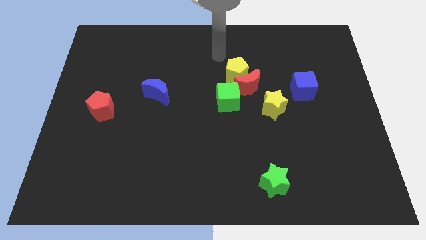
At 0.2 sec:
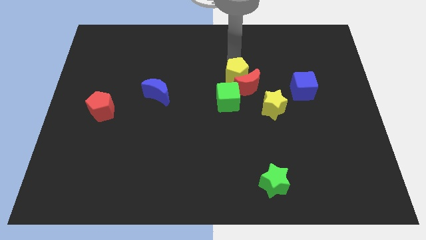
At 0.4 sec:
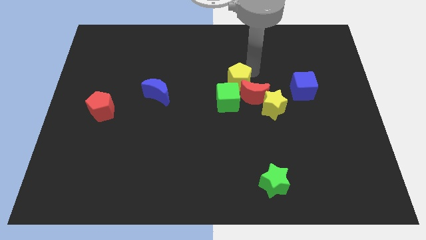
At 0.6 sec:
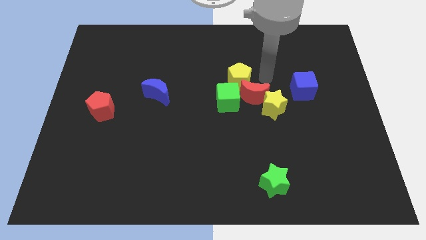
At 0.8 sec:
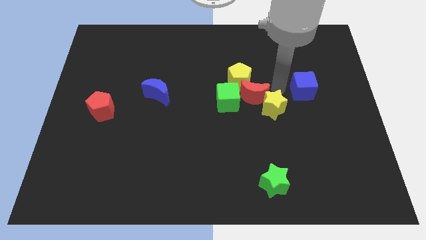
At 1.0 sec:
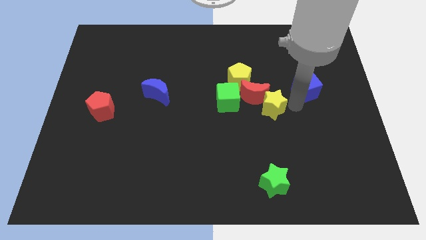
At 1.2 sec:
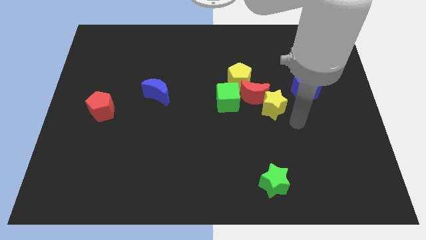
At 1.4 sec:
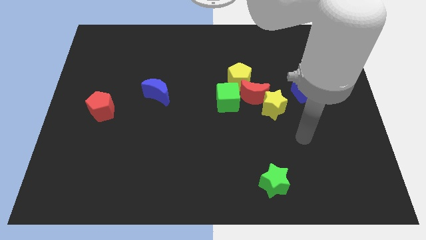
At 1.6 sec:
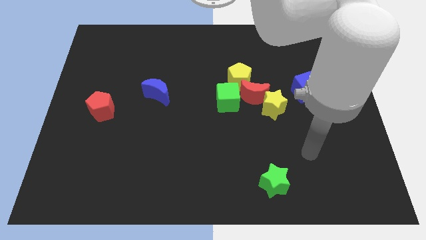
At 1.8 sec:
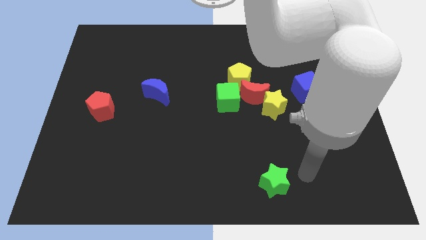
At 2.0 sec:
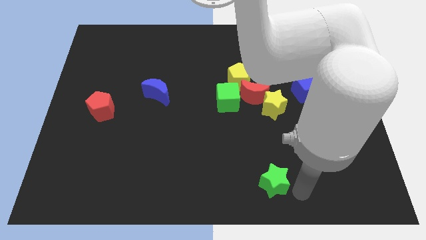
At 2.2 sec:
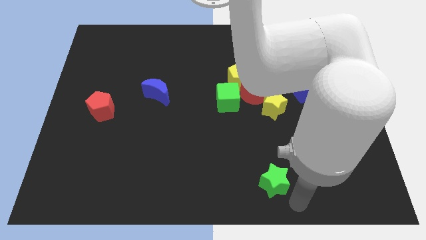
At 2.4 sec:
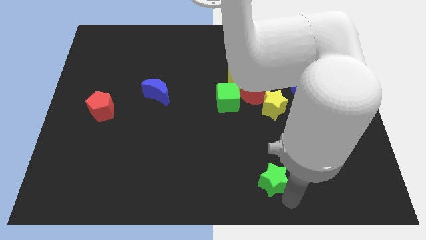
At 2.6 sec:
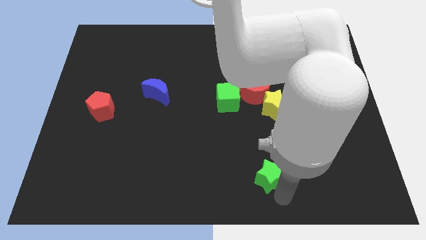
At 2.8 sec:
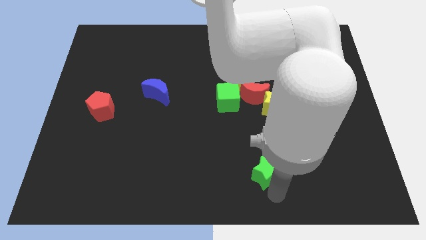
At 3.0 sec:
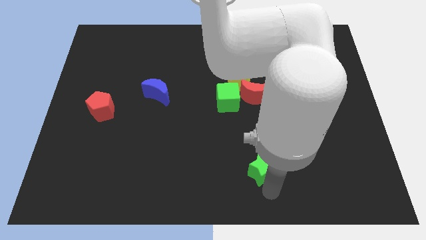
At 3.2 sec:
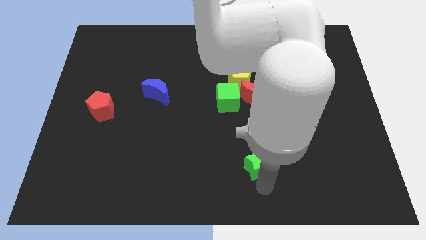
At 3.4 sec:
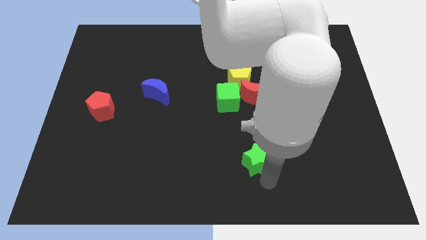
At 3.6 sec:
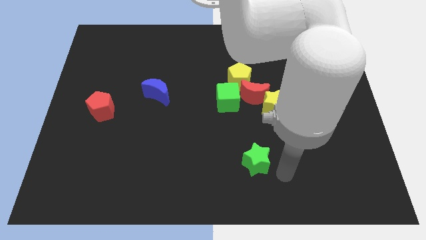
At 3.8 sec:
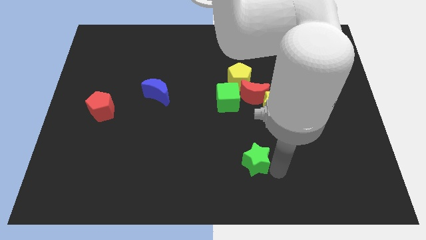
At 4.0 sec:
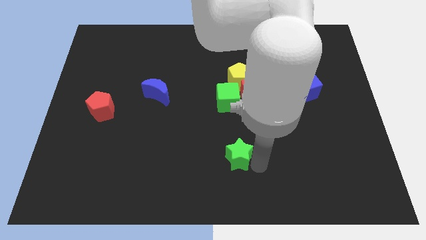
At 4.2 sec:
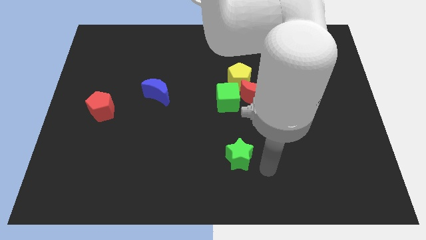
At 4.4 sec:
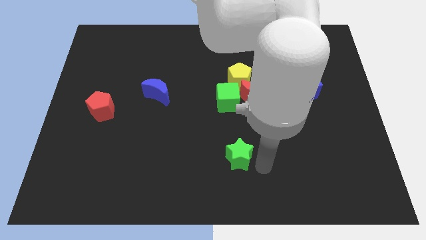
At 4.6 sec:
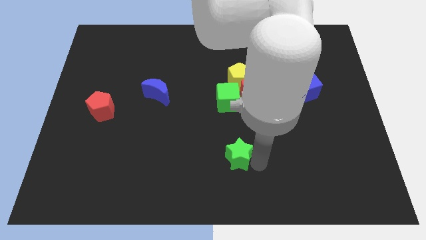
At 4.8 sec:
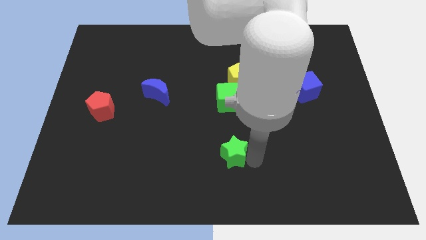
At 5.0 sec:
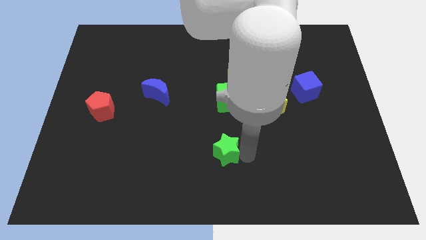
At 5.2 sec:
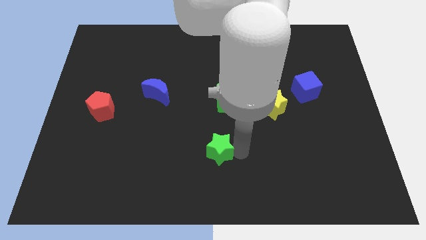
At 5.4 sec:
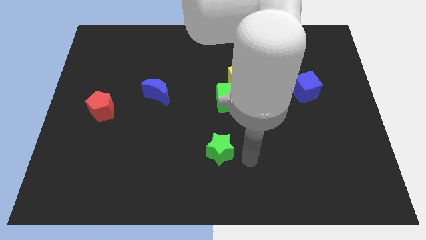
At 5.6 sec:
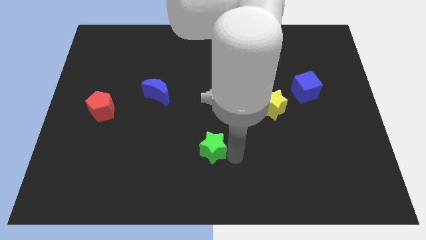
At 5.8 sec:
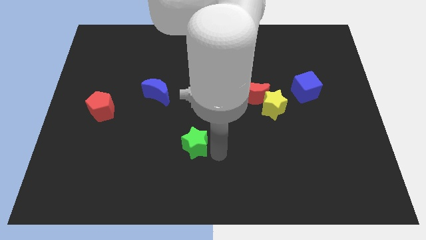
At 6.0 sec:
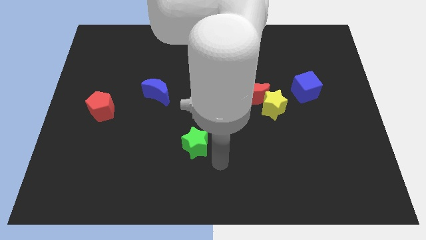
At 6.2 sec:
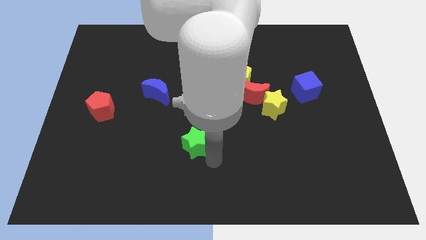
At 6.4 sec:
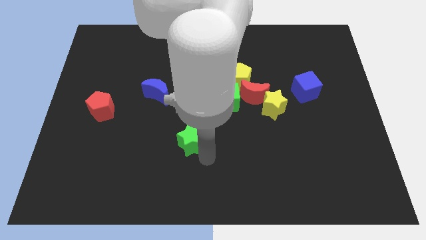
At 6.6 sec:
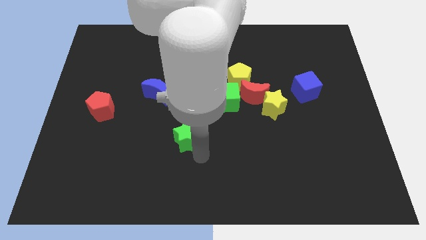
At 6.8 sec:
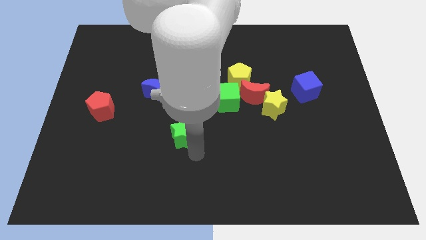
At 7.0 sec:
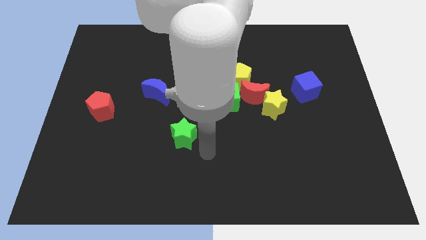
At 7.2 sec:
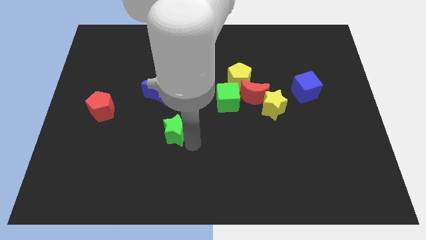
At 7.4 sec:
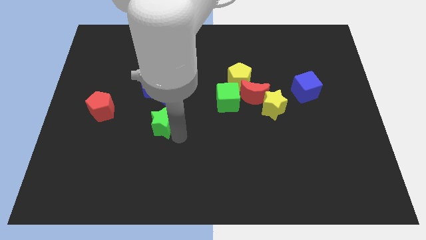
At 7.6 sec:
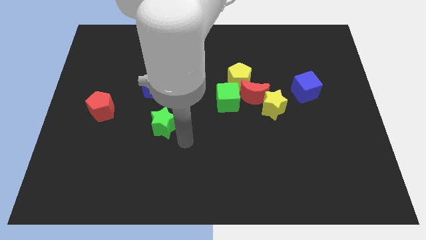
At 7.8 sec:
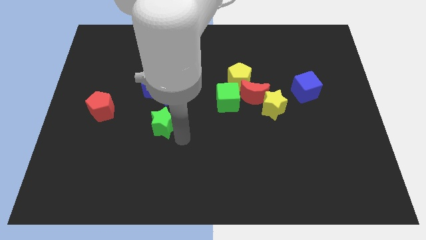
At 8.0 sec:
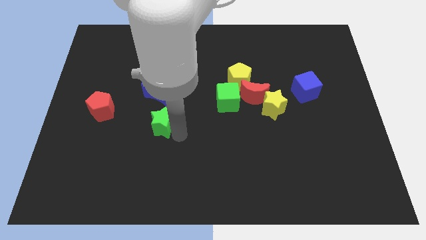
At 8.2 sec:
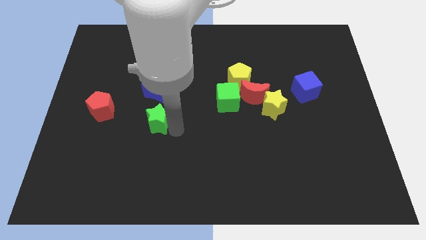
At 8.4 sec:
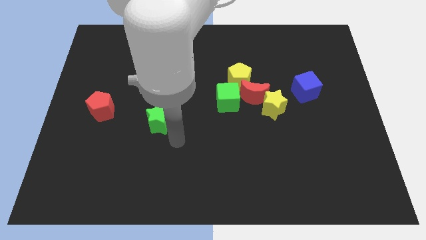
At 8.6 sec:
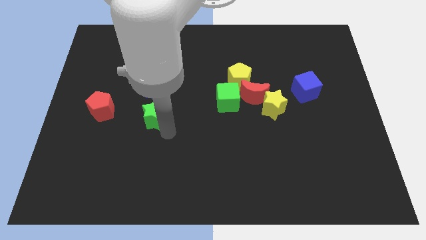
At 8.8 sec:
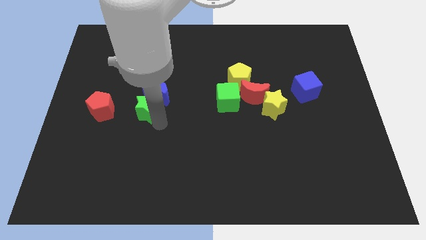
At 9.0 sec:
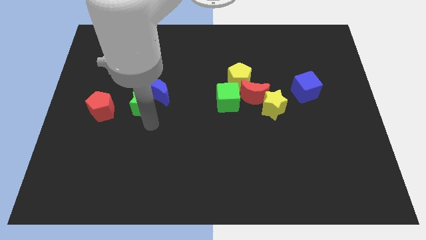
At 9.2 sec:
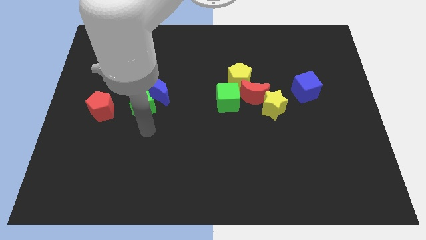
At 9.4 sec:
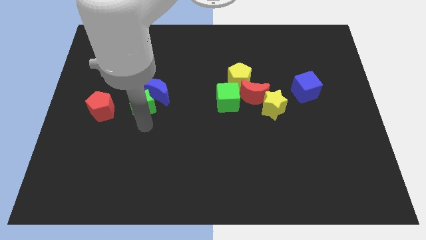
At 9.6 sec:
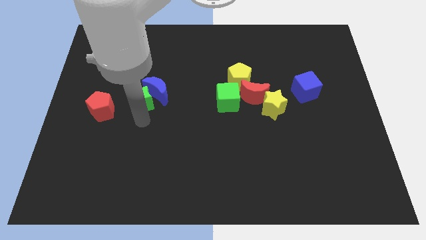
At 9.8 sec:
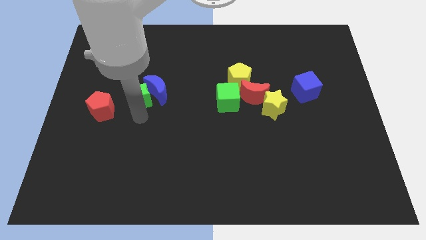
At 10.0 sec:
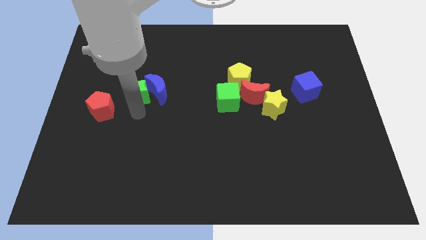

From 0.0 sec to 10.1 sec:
slide the green star to the top left of the blue moon

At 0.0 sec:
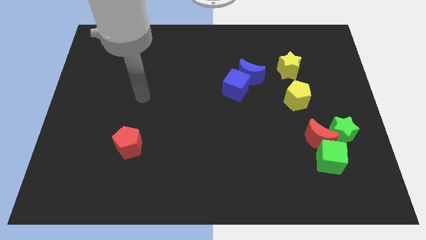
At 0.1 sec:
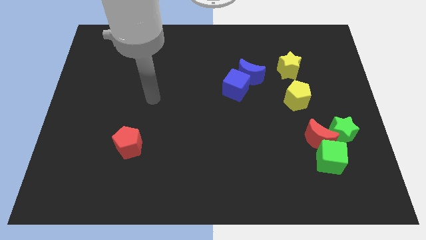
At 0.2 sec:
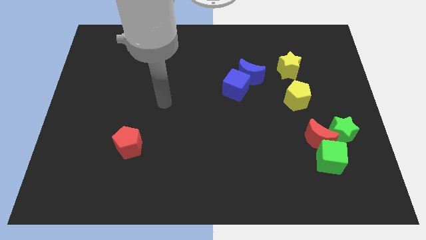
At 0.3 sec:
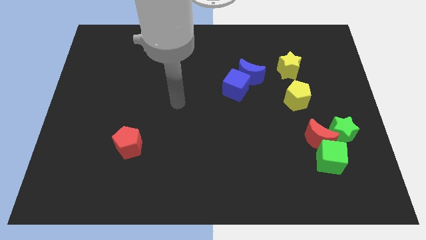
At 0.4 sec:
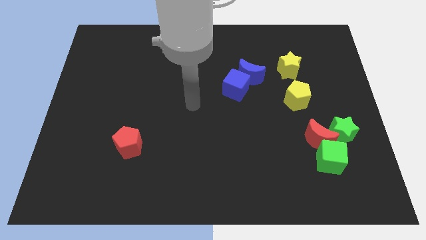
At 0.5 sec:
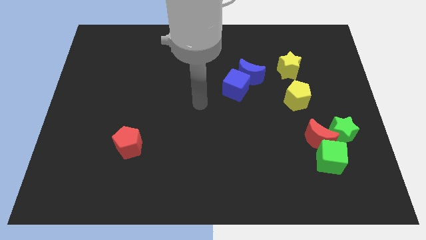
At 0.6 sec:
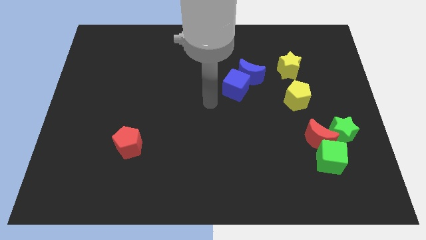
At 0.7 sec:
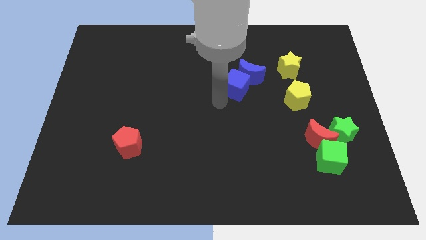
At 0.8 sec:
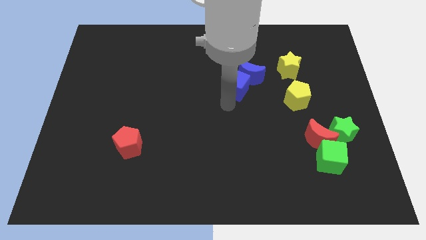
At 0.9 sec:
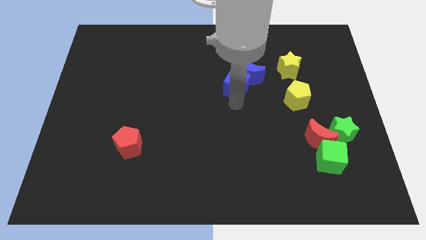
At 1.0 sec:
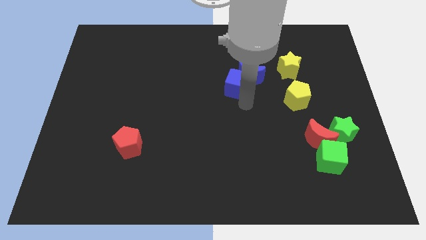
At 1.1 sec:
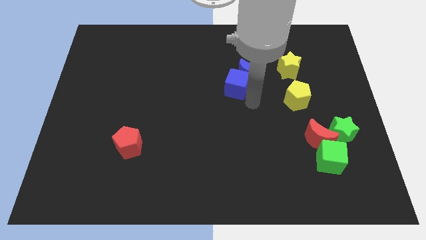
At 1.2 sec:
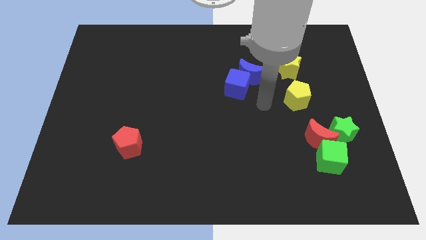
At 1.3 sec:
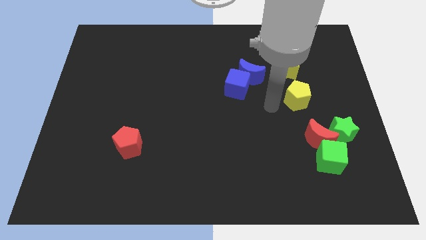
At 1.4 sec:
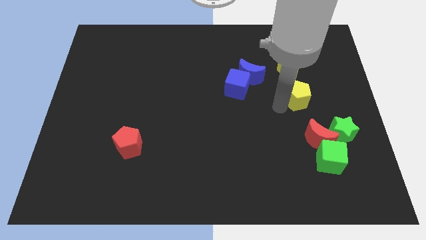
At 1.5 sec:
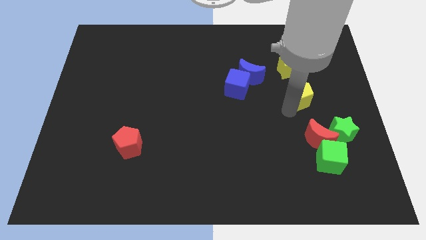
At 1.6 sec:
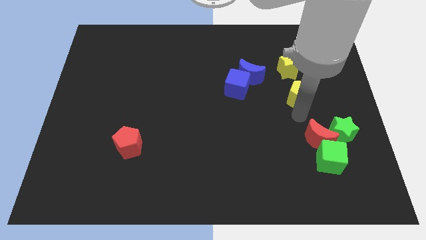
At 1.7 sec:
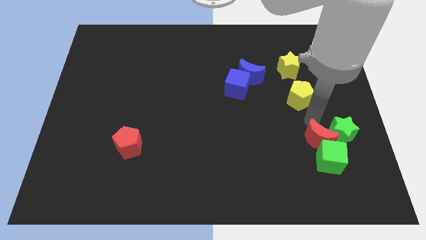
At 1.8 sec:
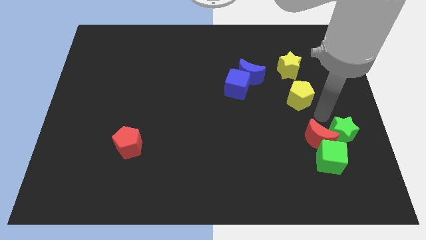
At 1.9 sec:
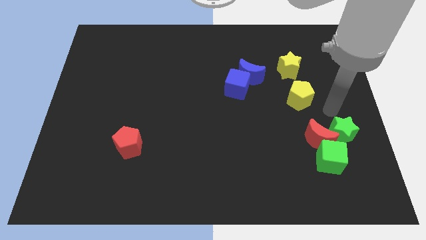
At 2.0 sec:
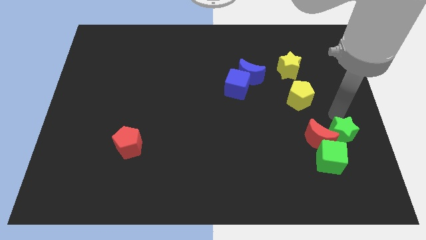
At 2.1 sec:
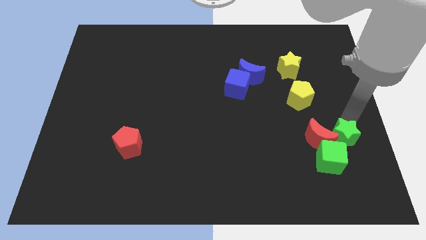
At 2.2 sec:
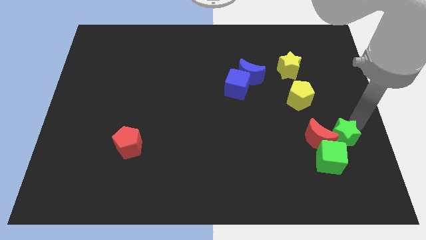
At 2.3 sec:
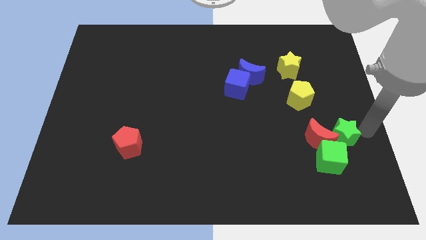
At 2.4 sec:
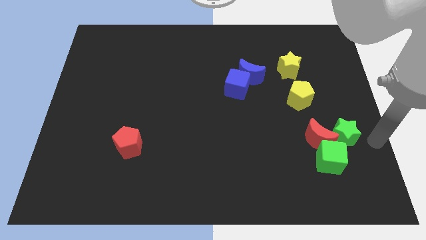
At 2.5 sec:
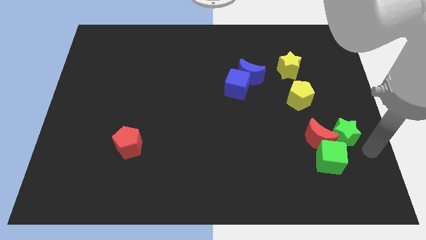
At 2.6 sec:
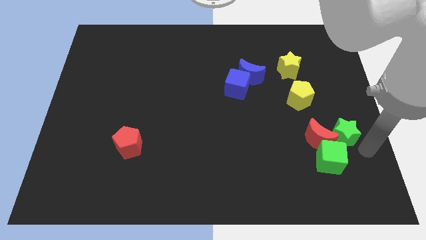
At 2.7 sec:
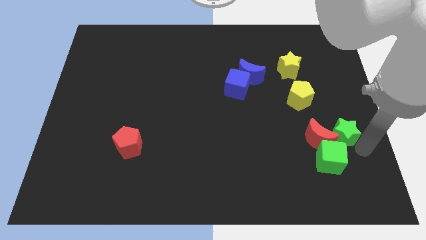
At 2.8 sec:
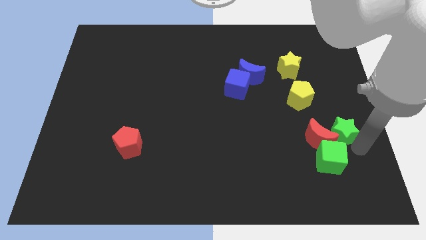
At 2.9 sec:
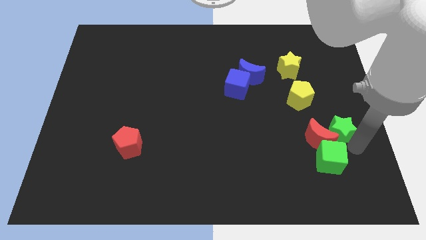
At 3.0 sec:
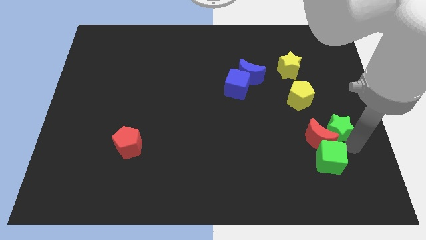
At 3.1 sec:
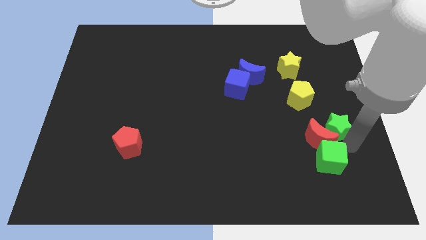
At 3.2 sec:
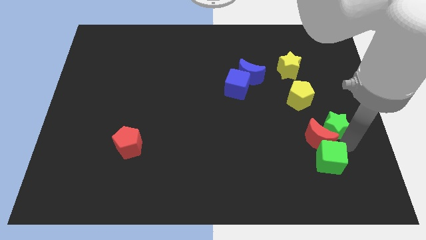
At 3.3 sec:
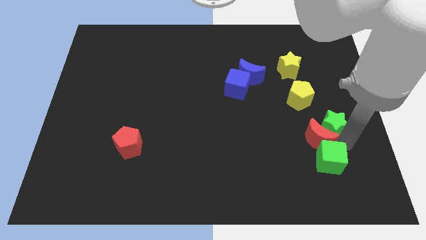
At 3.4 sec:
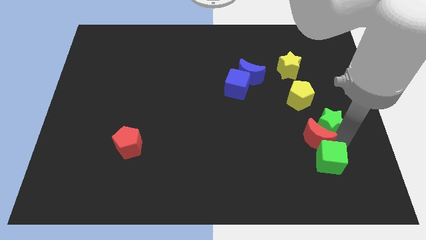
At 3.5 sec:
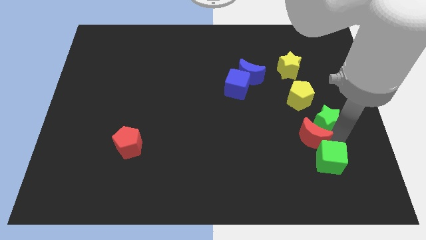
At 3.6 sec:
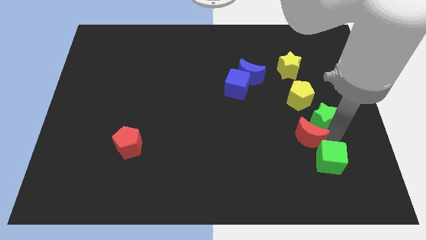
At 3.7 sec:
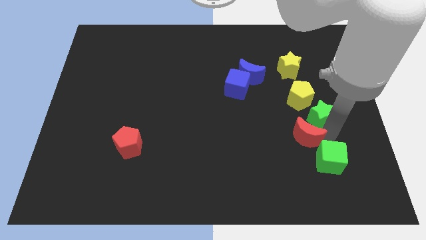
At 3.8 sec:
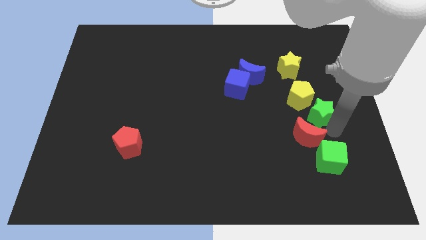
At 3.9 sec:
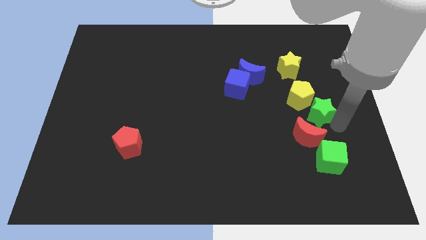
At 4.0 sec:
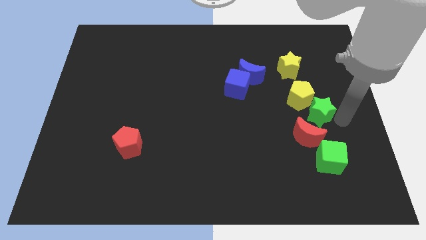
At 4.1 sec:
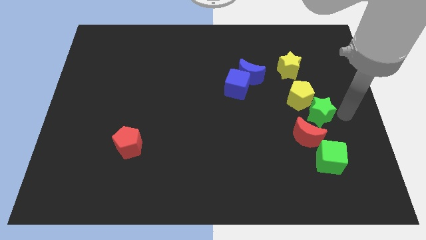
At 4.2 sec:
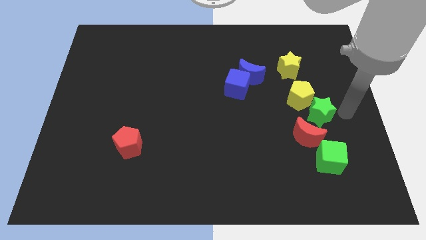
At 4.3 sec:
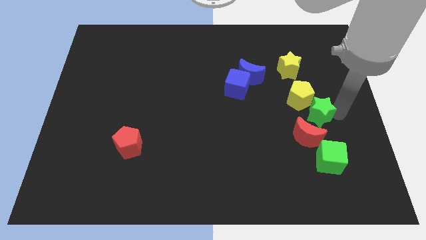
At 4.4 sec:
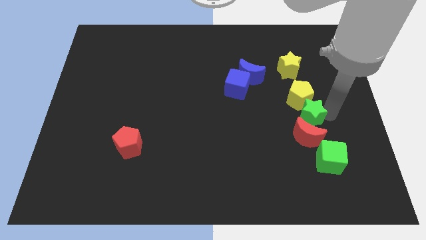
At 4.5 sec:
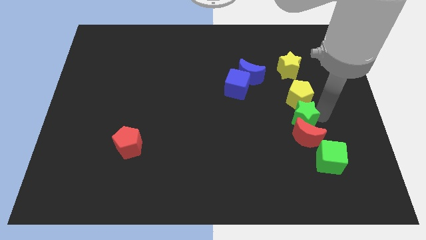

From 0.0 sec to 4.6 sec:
move the green star to the top left of the red moon
